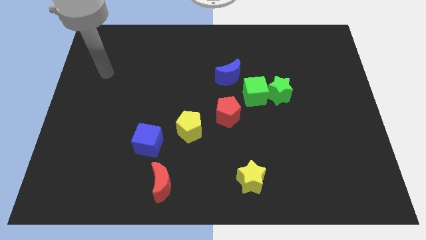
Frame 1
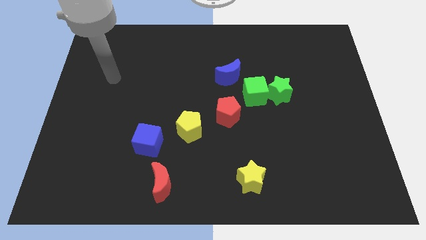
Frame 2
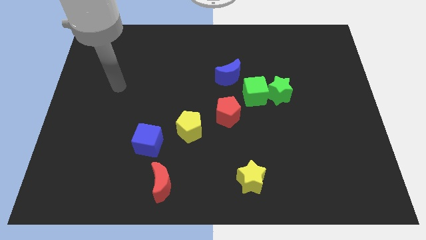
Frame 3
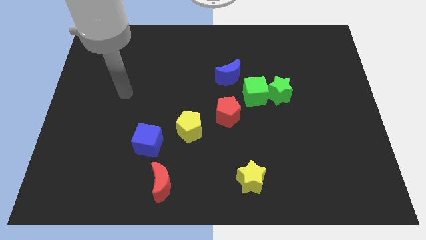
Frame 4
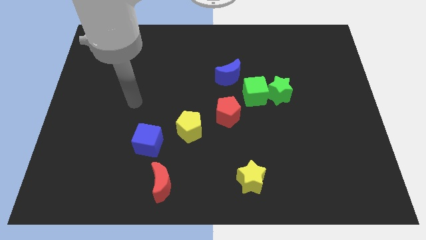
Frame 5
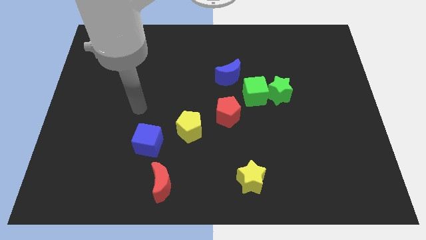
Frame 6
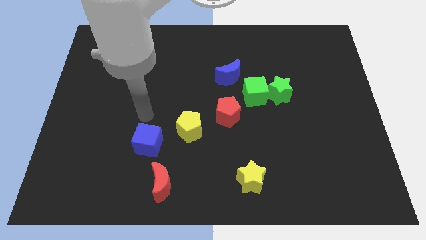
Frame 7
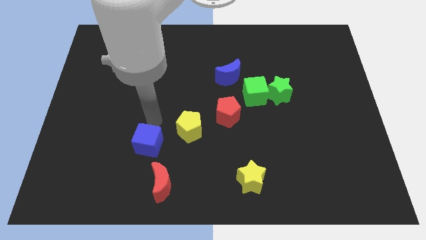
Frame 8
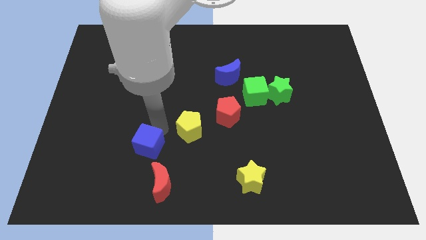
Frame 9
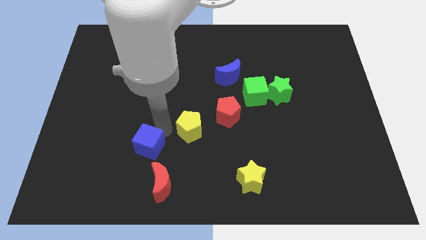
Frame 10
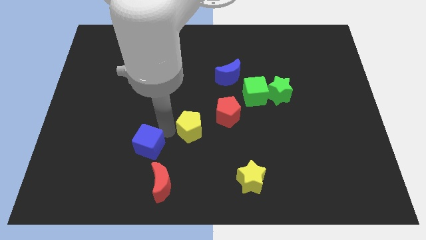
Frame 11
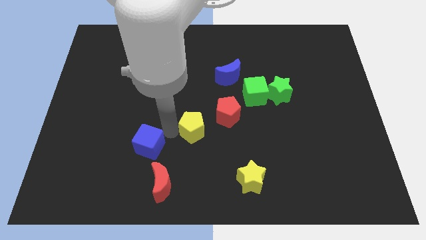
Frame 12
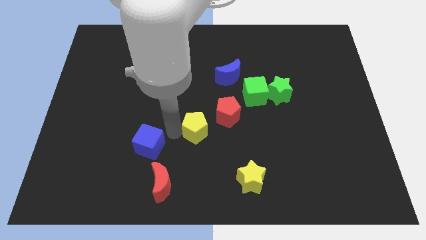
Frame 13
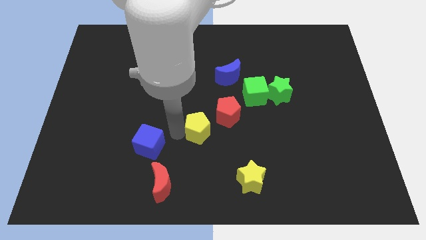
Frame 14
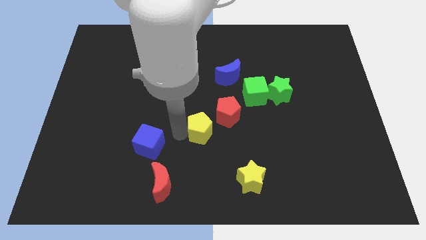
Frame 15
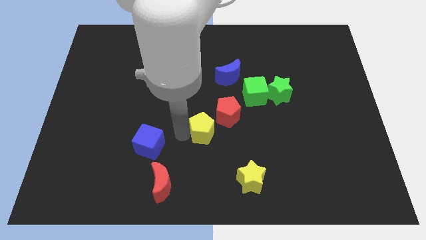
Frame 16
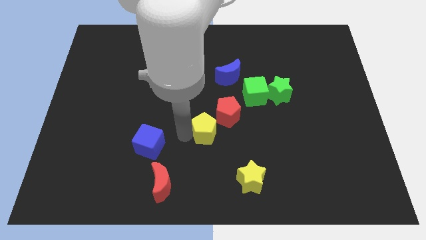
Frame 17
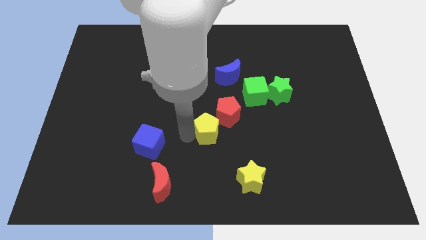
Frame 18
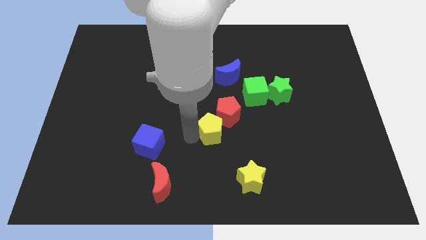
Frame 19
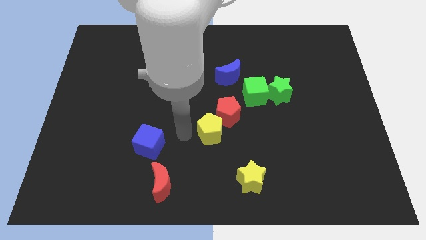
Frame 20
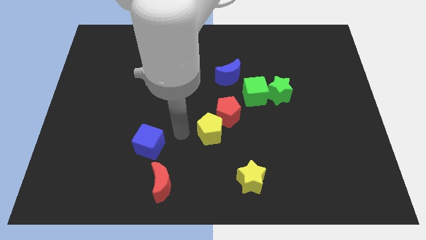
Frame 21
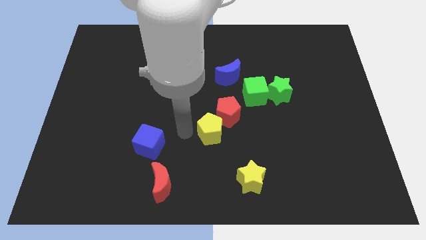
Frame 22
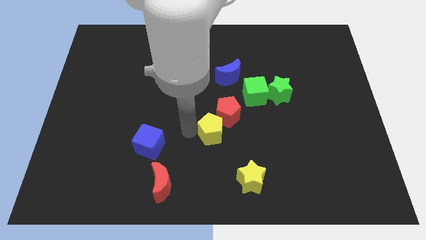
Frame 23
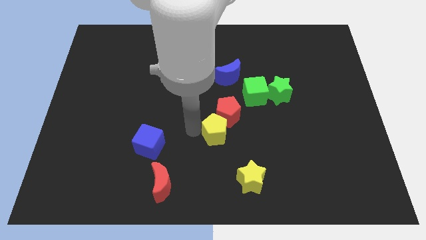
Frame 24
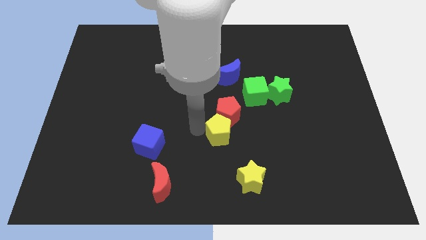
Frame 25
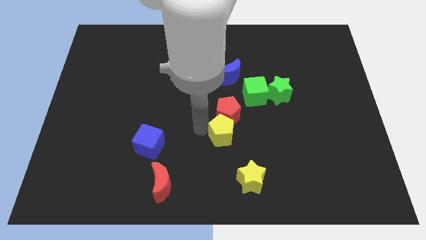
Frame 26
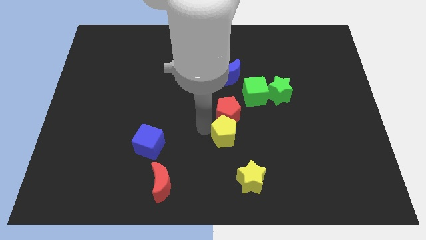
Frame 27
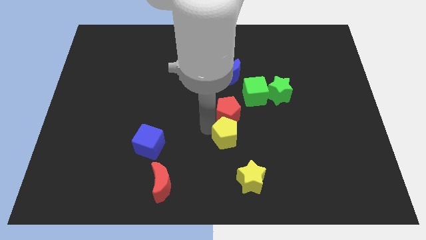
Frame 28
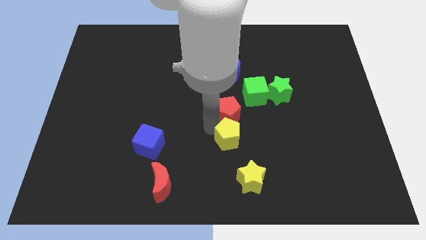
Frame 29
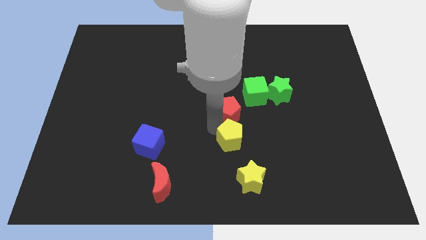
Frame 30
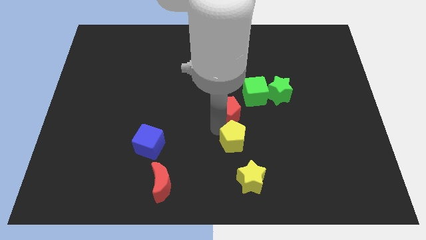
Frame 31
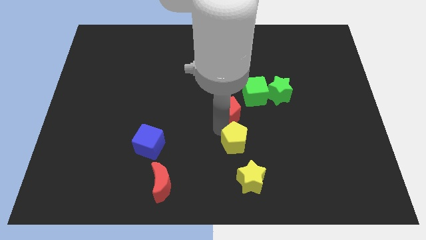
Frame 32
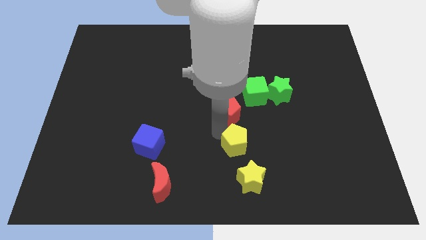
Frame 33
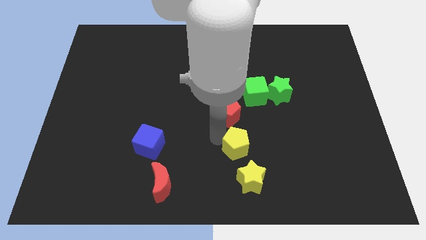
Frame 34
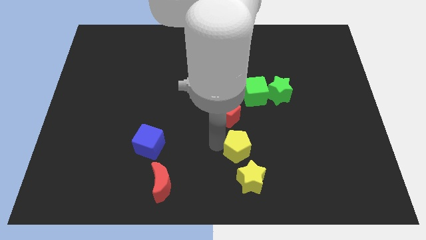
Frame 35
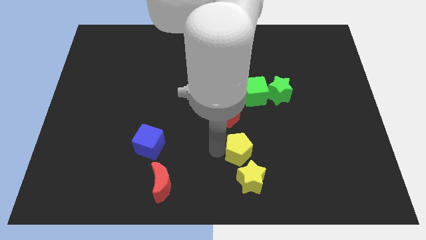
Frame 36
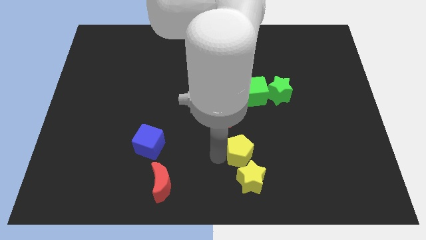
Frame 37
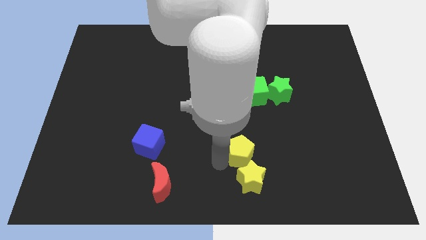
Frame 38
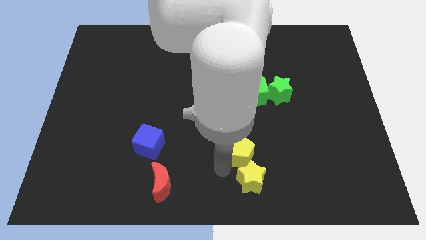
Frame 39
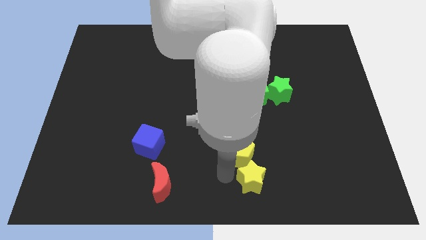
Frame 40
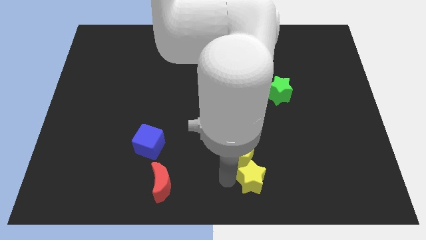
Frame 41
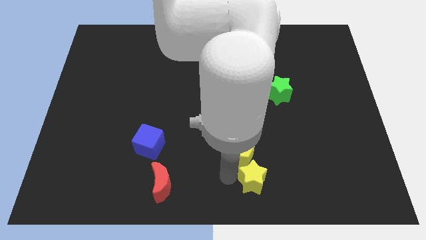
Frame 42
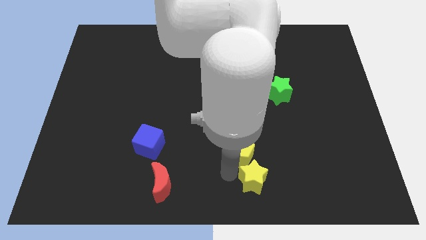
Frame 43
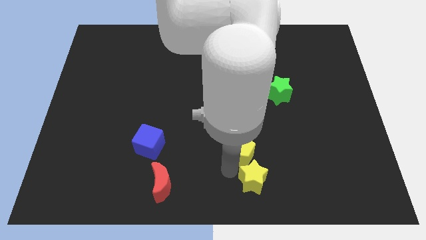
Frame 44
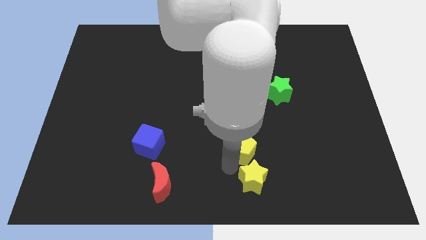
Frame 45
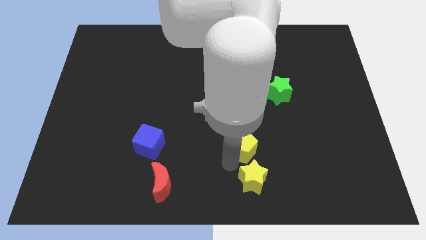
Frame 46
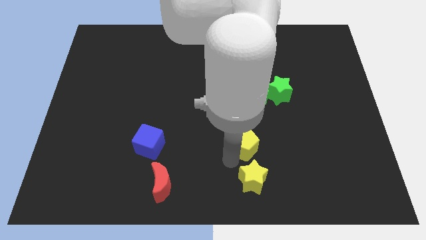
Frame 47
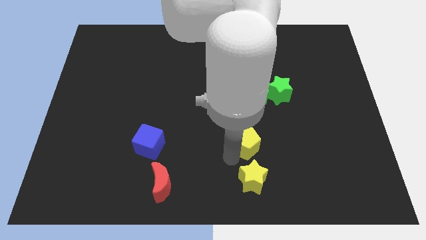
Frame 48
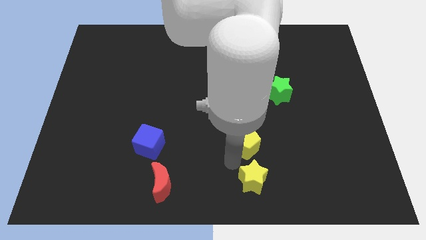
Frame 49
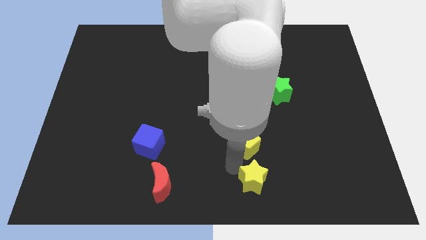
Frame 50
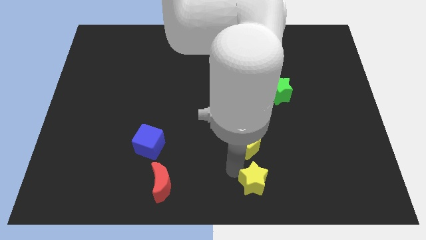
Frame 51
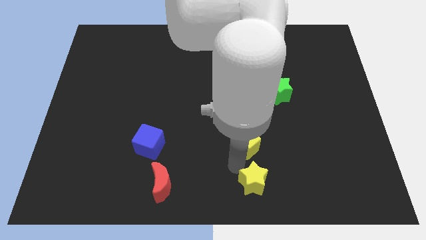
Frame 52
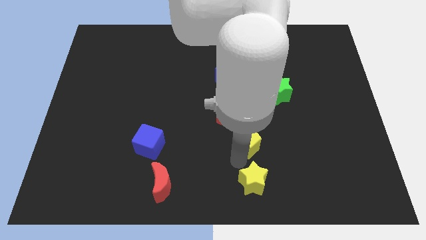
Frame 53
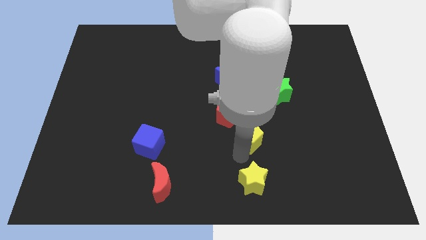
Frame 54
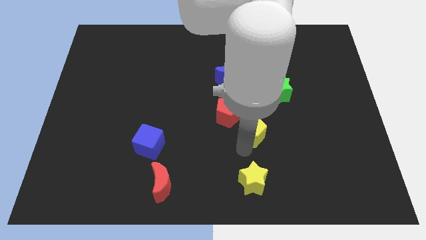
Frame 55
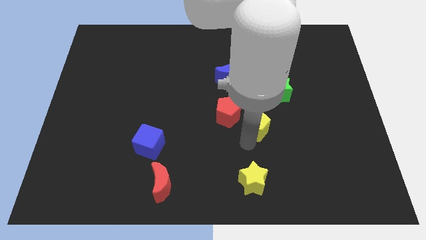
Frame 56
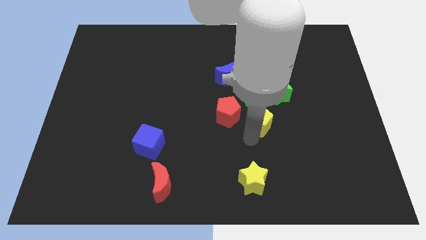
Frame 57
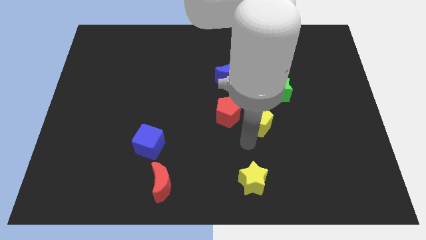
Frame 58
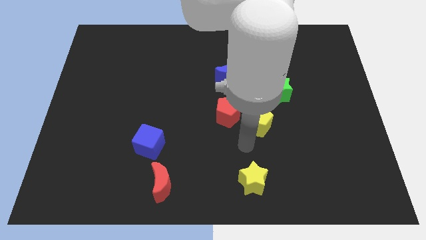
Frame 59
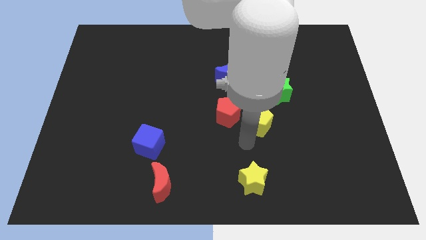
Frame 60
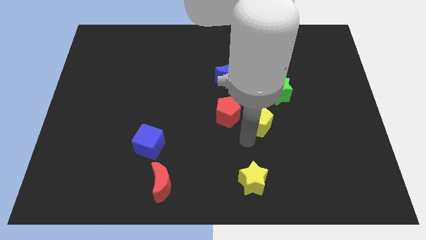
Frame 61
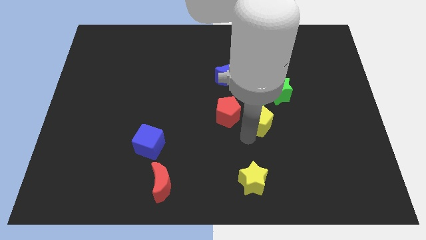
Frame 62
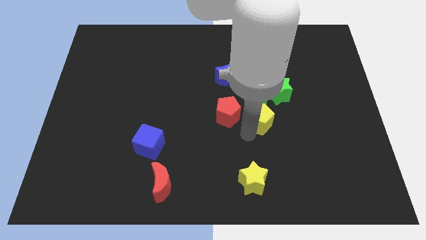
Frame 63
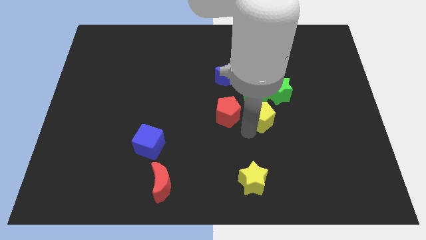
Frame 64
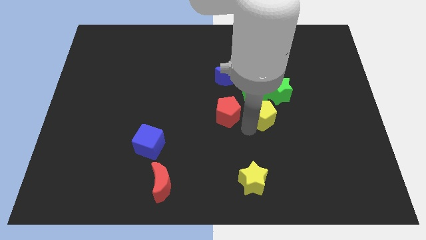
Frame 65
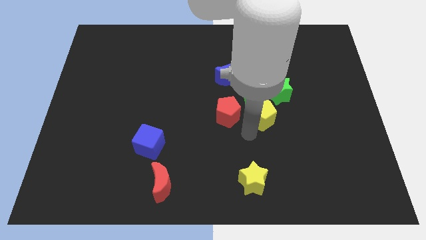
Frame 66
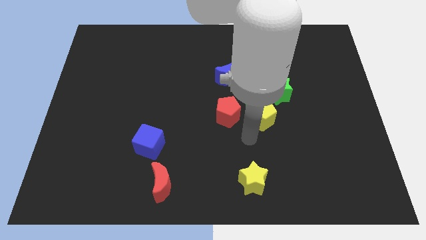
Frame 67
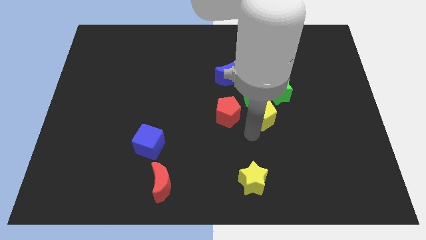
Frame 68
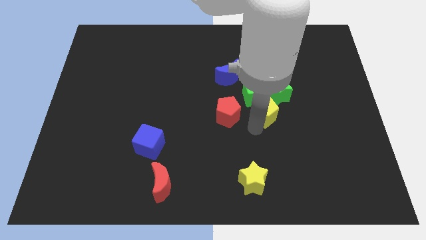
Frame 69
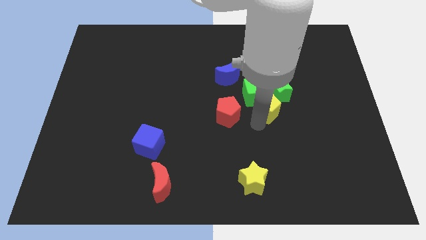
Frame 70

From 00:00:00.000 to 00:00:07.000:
put the yellow pentagon towards the green star

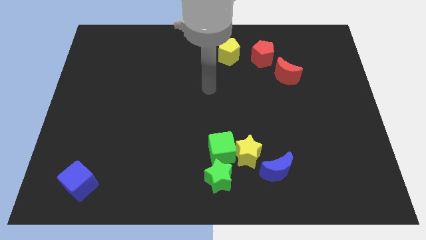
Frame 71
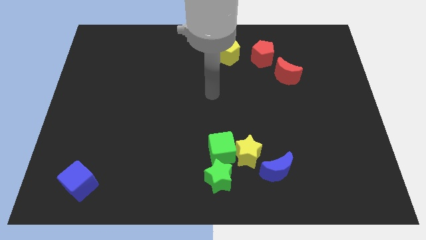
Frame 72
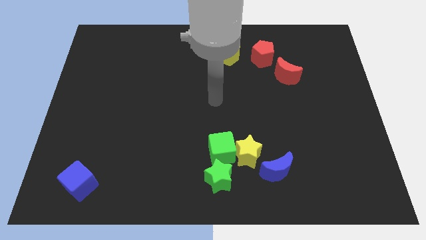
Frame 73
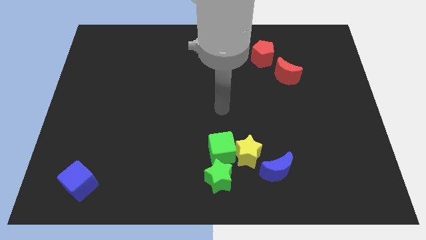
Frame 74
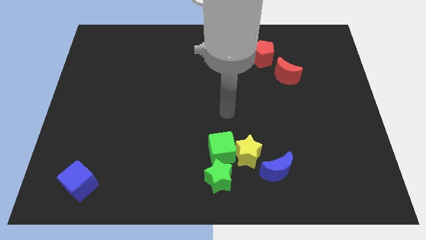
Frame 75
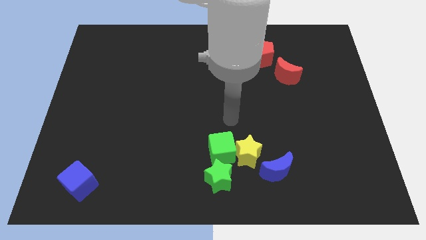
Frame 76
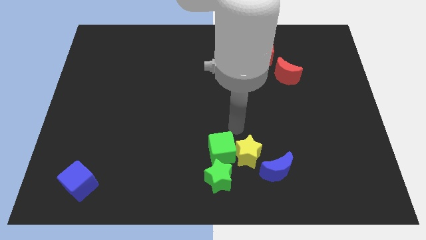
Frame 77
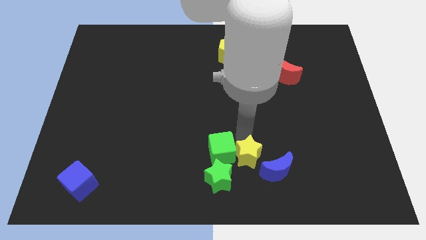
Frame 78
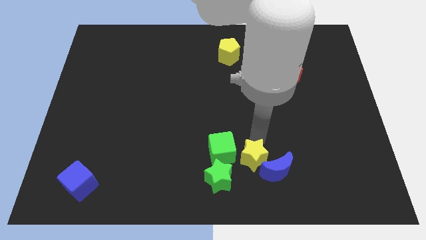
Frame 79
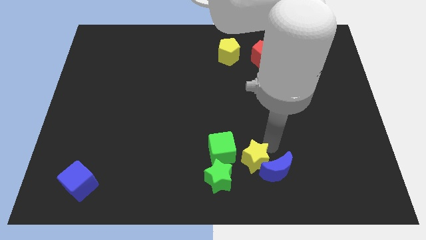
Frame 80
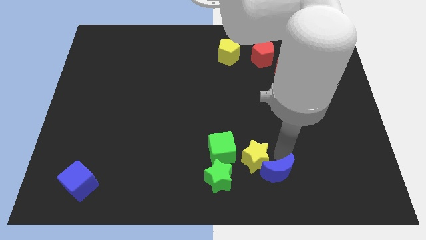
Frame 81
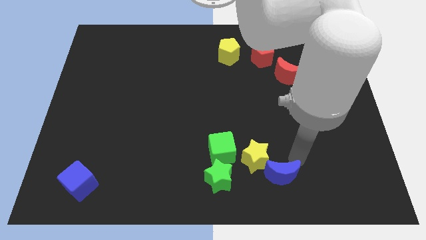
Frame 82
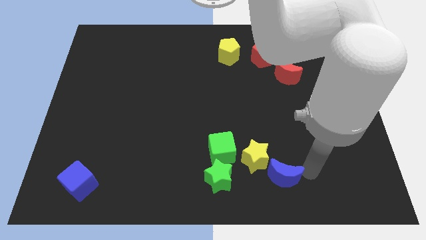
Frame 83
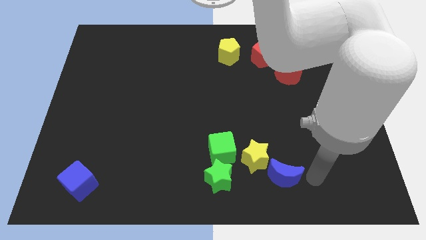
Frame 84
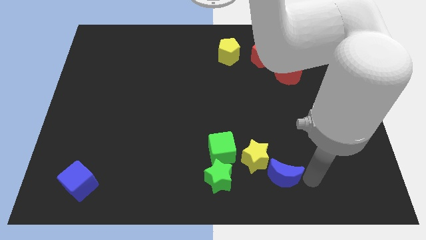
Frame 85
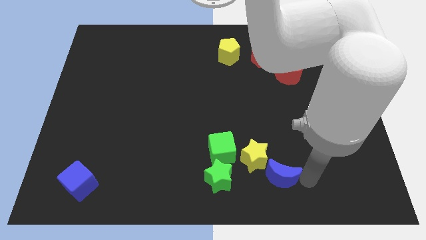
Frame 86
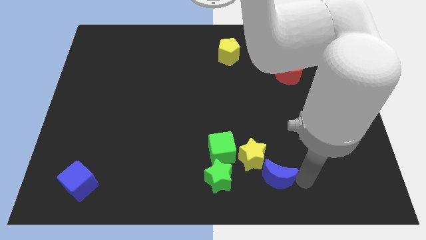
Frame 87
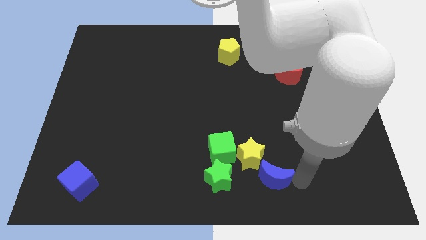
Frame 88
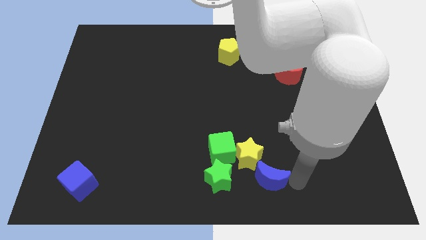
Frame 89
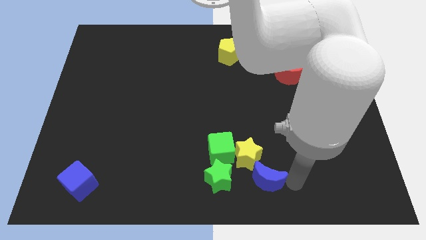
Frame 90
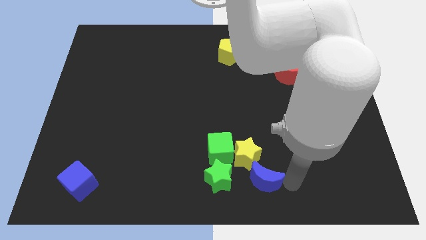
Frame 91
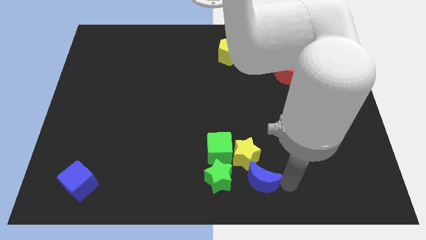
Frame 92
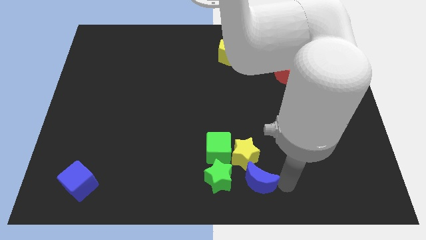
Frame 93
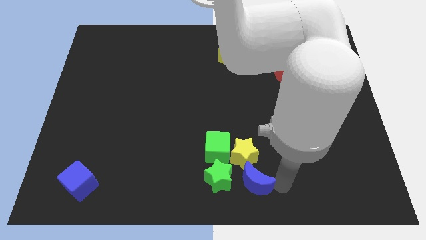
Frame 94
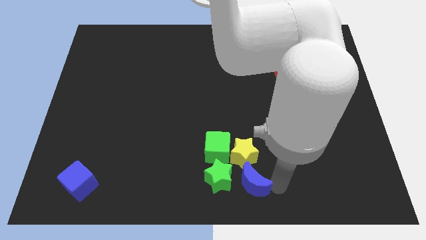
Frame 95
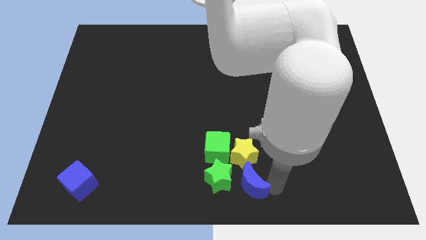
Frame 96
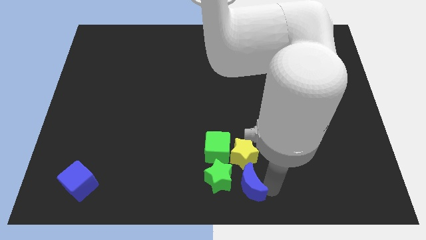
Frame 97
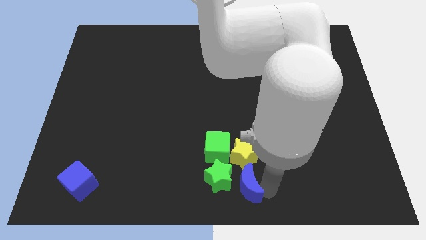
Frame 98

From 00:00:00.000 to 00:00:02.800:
push the blue moon close to the green star
